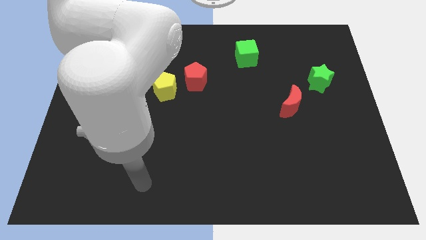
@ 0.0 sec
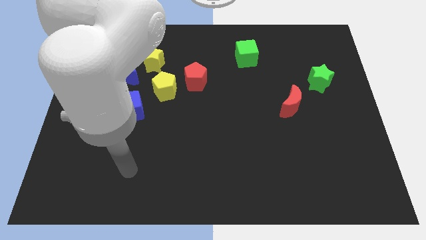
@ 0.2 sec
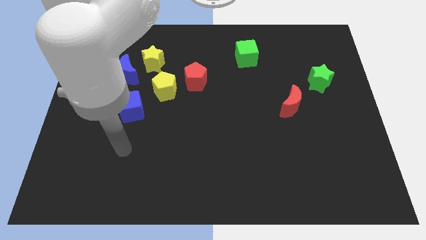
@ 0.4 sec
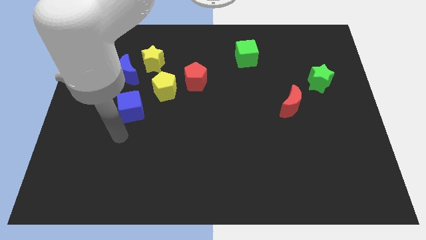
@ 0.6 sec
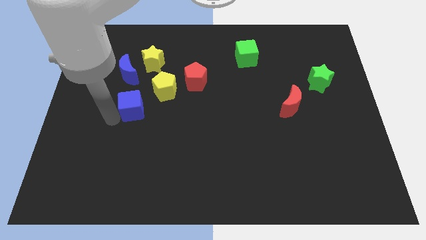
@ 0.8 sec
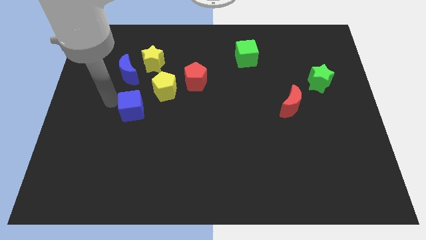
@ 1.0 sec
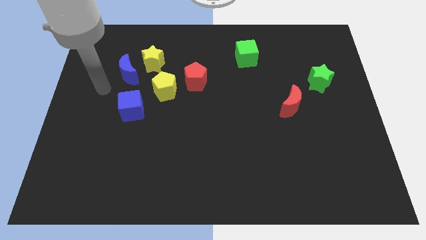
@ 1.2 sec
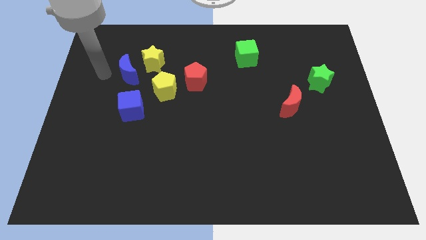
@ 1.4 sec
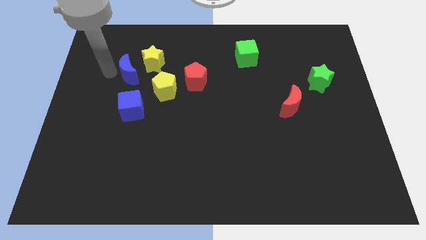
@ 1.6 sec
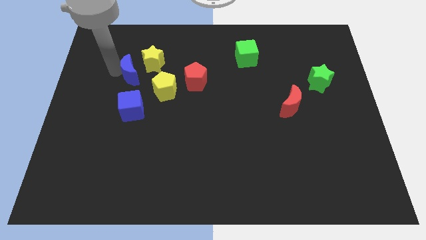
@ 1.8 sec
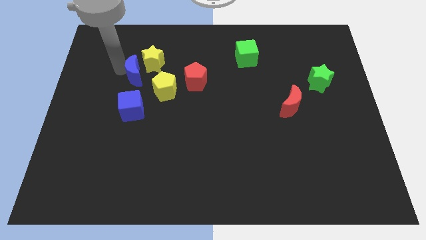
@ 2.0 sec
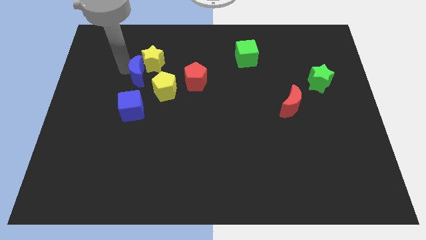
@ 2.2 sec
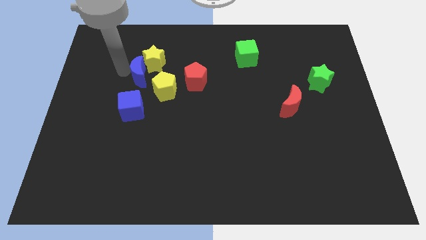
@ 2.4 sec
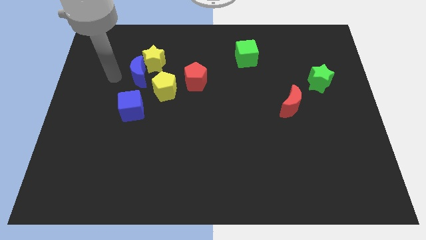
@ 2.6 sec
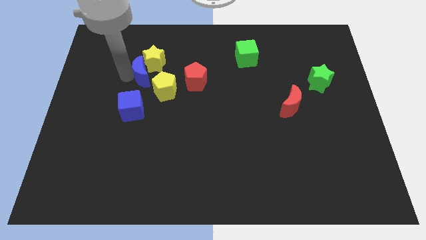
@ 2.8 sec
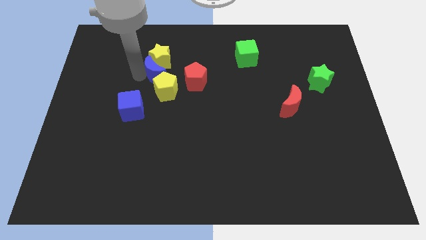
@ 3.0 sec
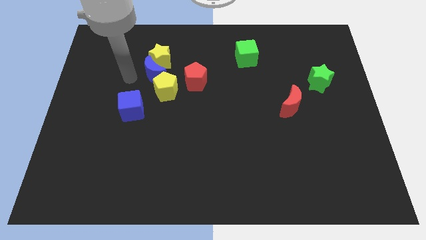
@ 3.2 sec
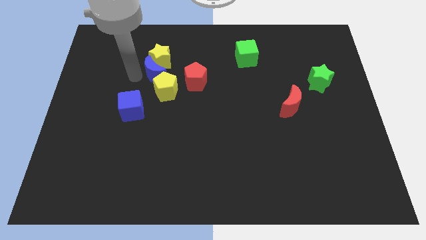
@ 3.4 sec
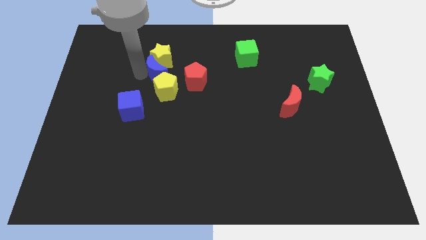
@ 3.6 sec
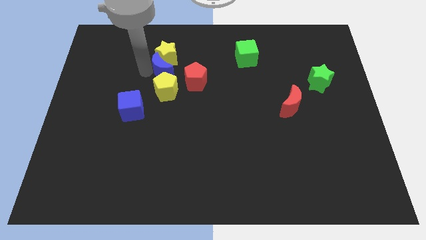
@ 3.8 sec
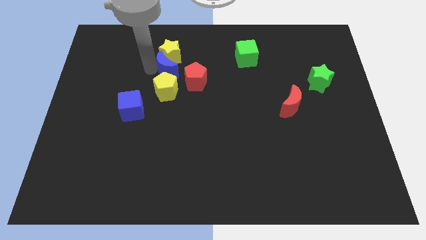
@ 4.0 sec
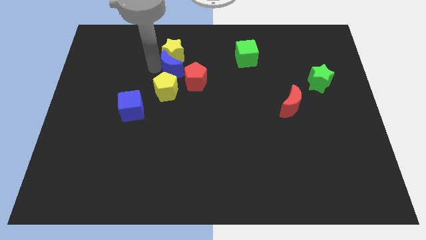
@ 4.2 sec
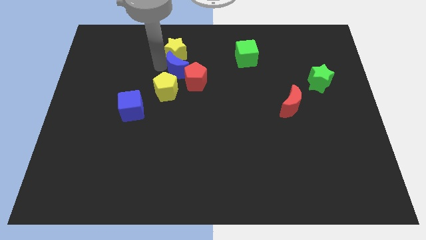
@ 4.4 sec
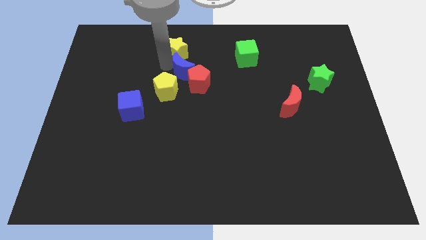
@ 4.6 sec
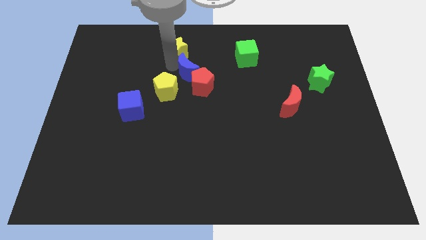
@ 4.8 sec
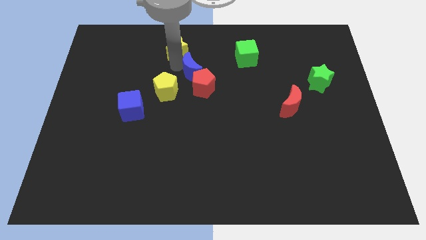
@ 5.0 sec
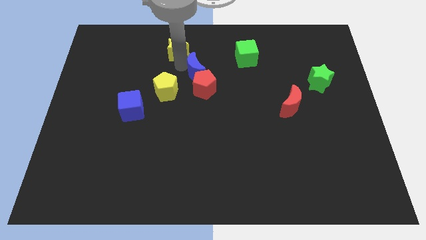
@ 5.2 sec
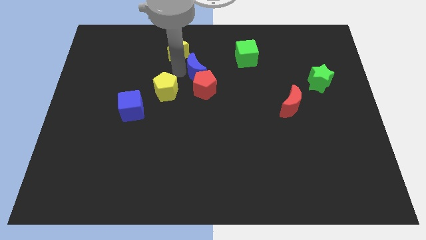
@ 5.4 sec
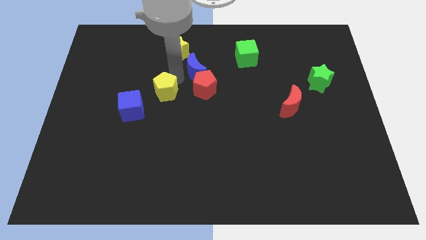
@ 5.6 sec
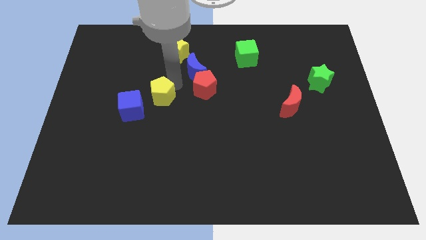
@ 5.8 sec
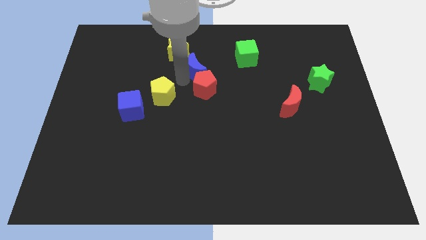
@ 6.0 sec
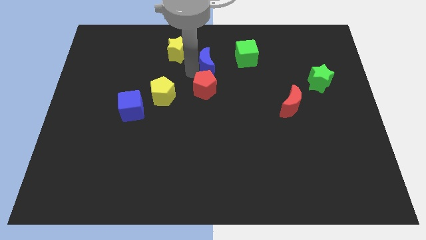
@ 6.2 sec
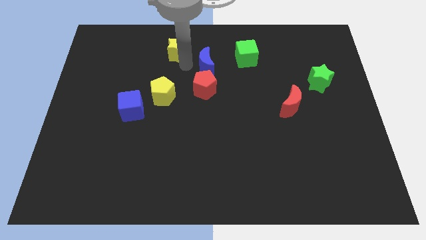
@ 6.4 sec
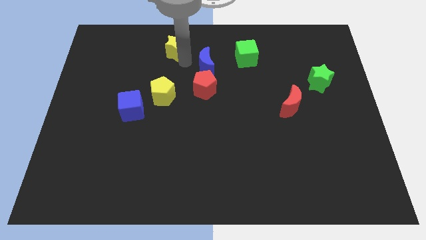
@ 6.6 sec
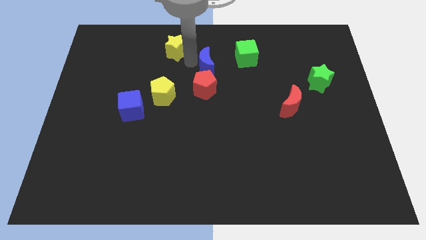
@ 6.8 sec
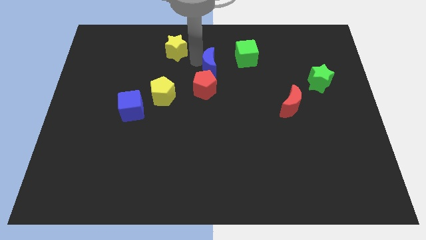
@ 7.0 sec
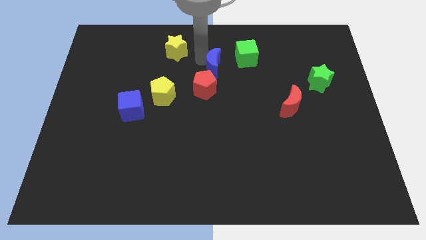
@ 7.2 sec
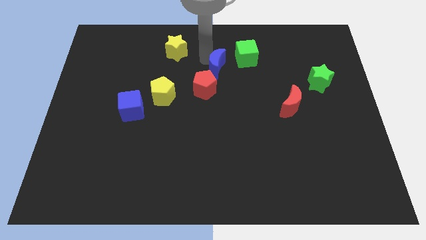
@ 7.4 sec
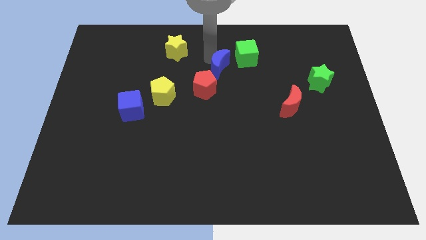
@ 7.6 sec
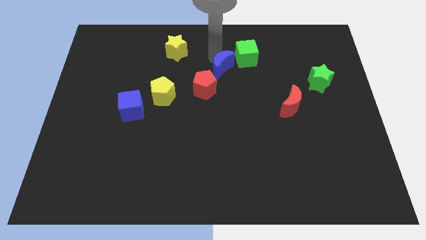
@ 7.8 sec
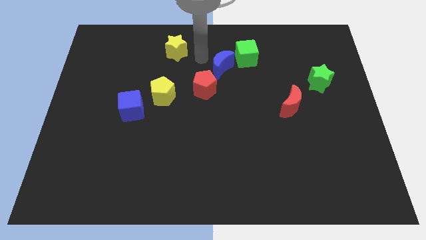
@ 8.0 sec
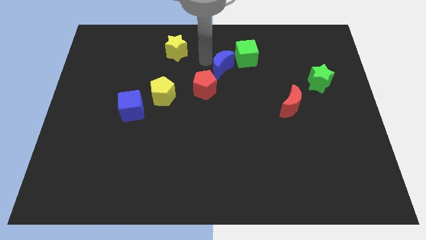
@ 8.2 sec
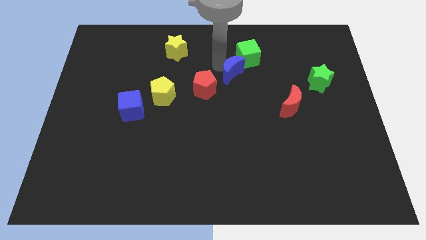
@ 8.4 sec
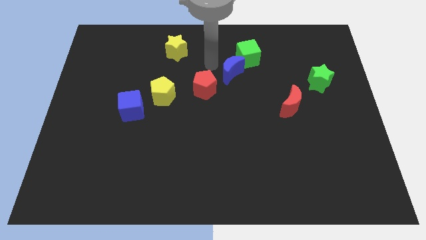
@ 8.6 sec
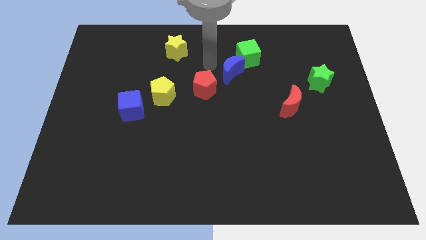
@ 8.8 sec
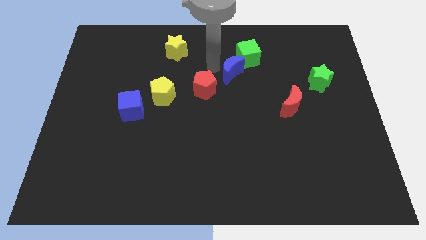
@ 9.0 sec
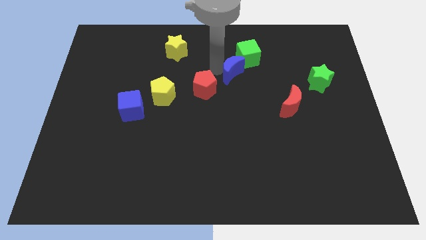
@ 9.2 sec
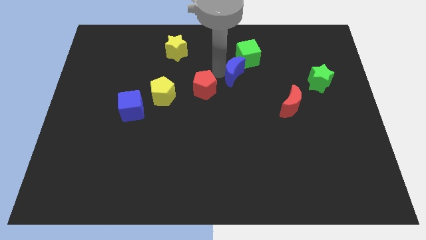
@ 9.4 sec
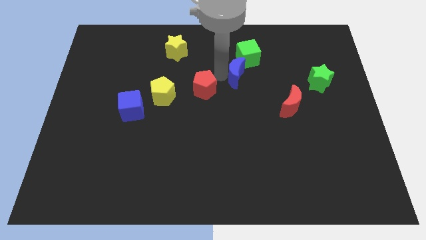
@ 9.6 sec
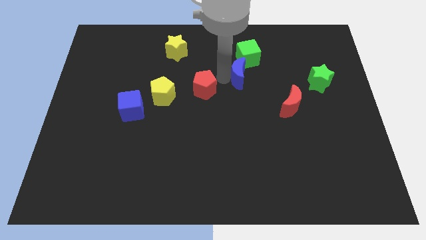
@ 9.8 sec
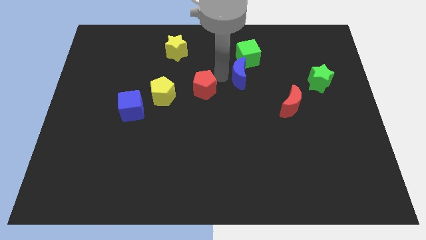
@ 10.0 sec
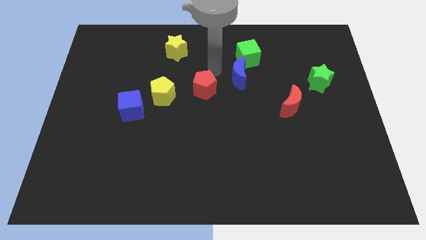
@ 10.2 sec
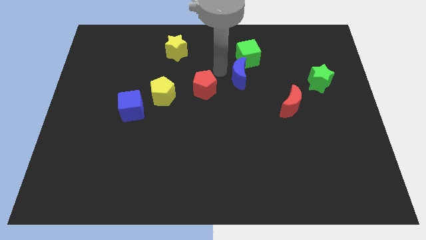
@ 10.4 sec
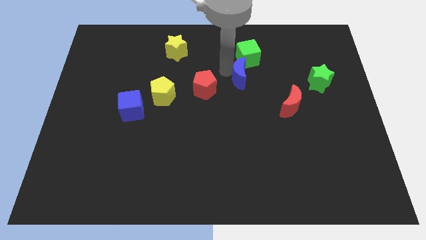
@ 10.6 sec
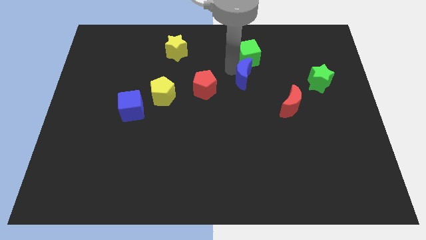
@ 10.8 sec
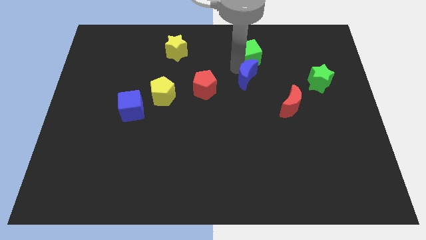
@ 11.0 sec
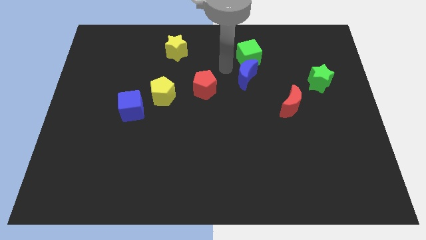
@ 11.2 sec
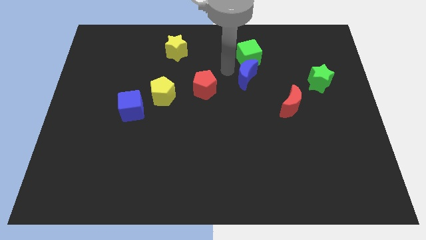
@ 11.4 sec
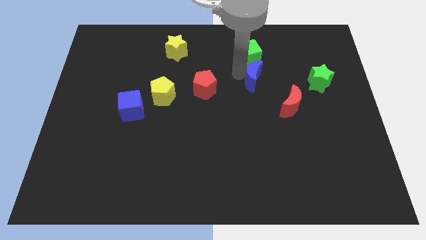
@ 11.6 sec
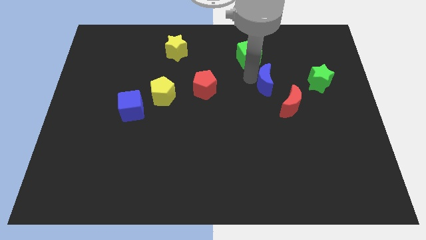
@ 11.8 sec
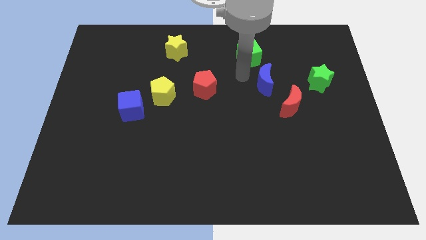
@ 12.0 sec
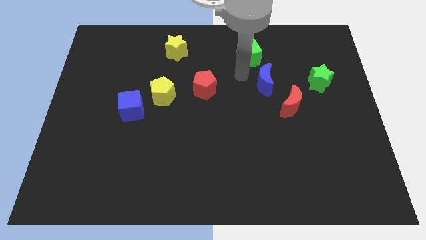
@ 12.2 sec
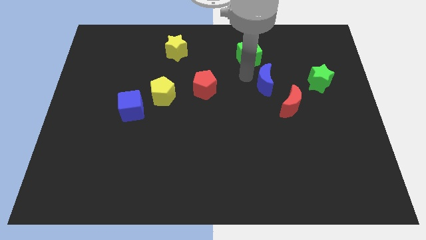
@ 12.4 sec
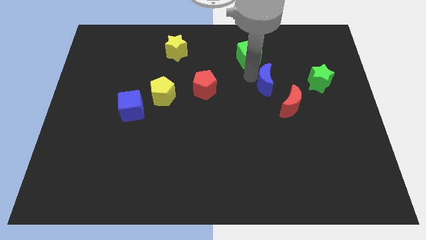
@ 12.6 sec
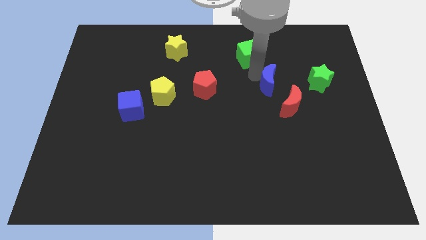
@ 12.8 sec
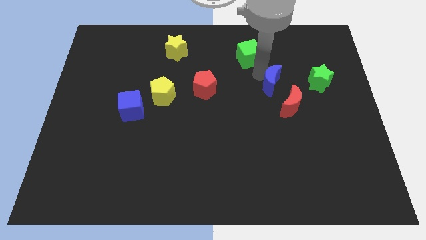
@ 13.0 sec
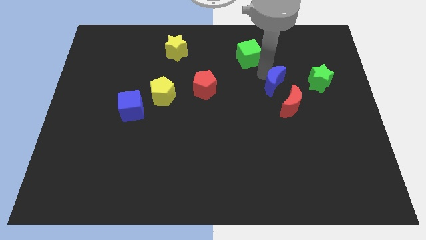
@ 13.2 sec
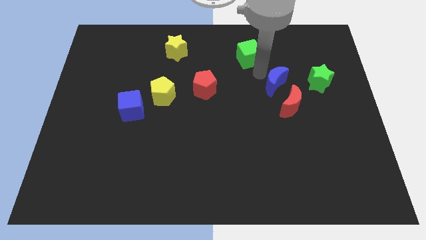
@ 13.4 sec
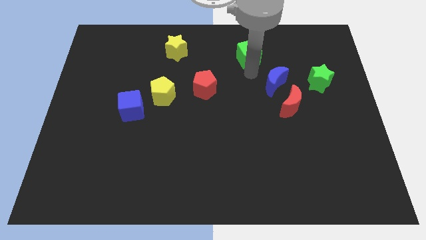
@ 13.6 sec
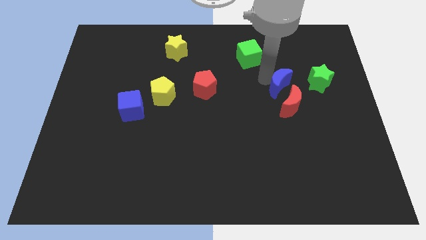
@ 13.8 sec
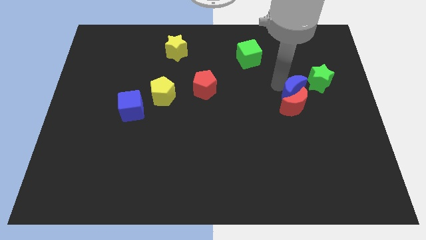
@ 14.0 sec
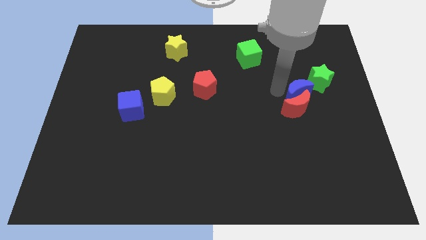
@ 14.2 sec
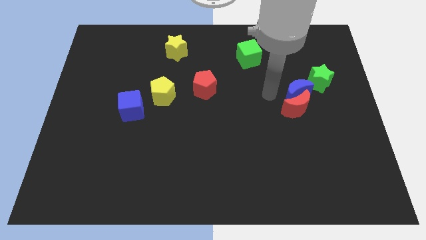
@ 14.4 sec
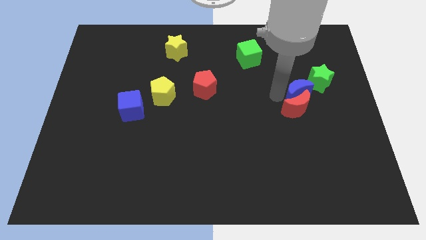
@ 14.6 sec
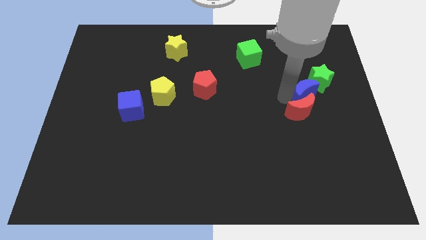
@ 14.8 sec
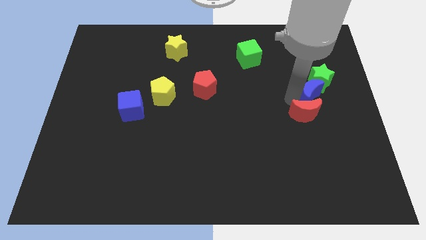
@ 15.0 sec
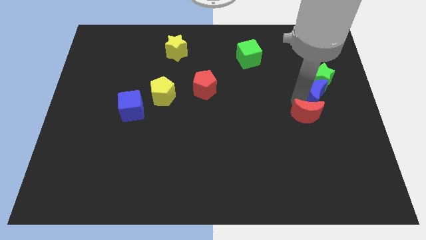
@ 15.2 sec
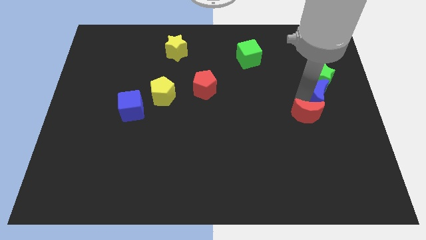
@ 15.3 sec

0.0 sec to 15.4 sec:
put the blue moon to the right side of the board
